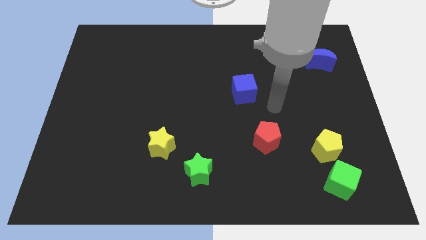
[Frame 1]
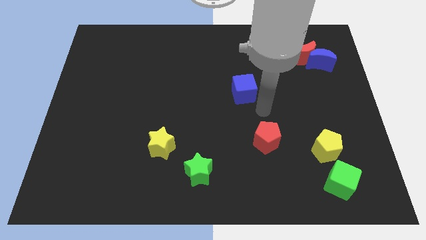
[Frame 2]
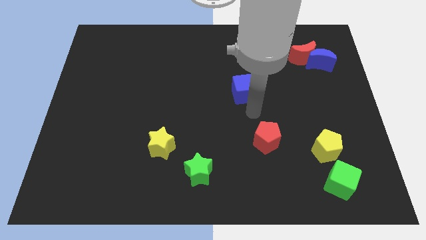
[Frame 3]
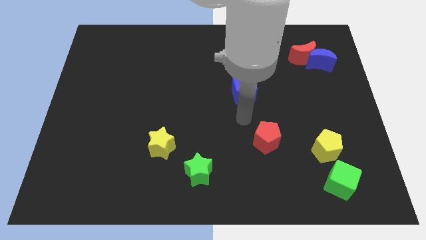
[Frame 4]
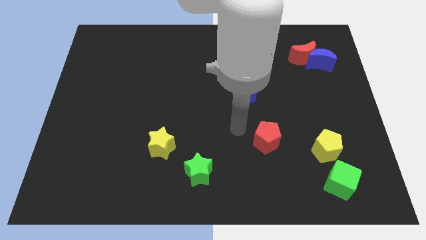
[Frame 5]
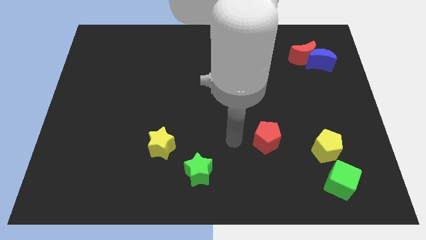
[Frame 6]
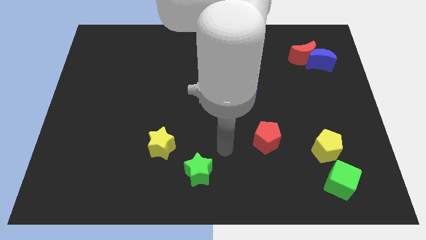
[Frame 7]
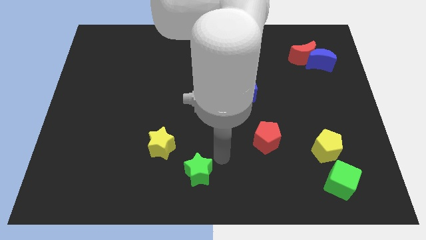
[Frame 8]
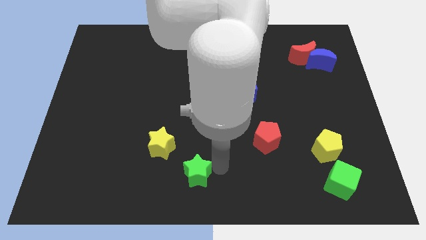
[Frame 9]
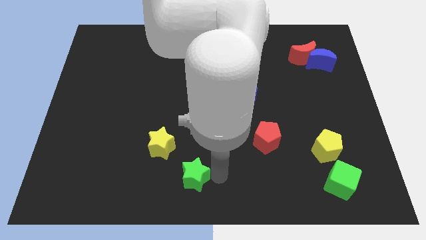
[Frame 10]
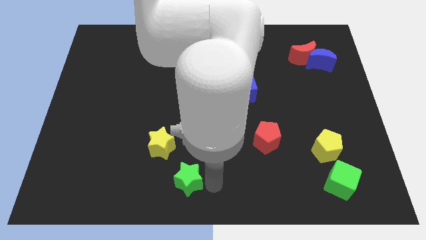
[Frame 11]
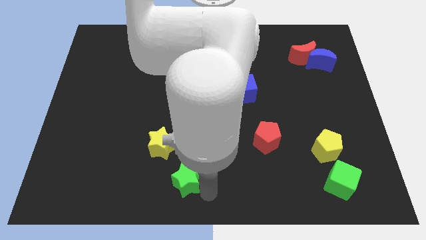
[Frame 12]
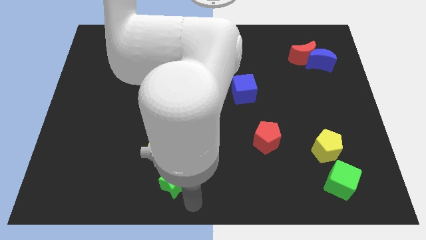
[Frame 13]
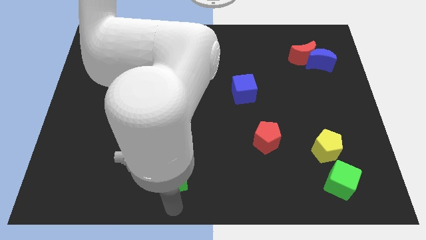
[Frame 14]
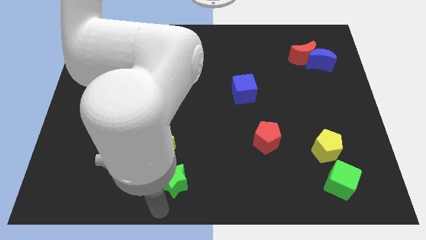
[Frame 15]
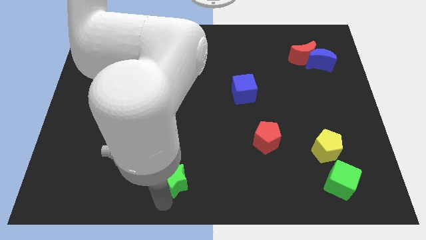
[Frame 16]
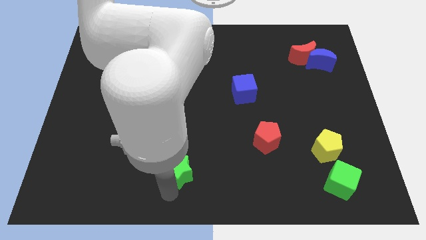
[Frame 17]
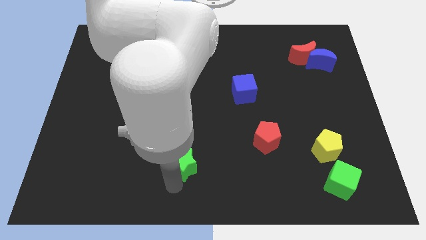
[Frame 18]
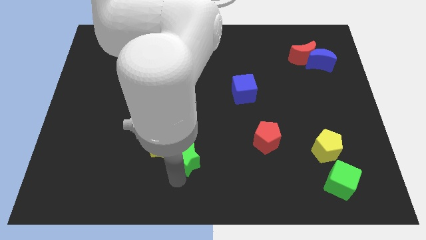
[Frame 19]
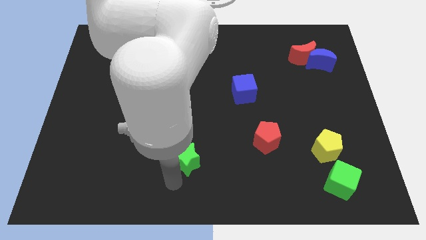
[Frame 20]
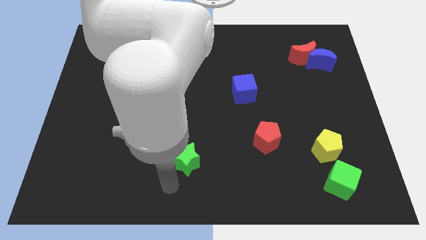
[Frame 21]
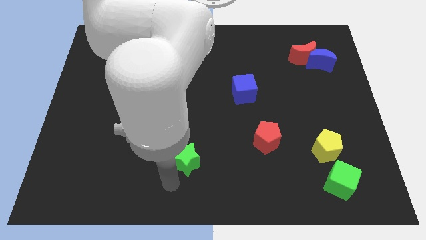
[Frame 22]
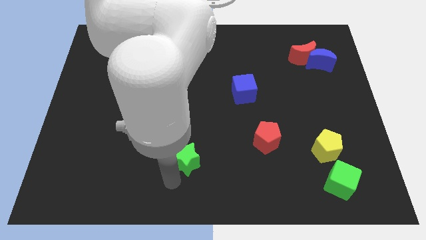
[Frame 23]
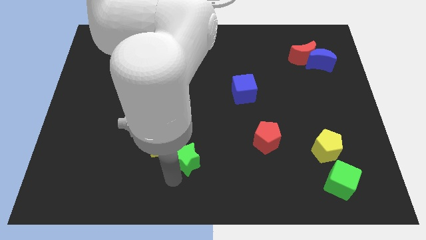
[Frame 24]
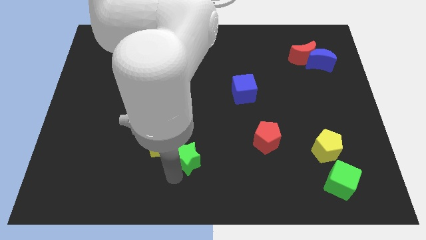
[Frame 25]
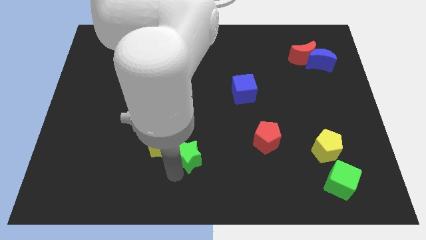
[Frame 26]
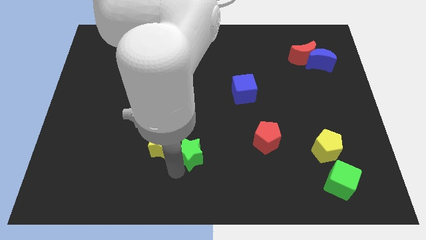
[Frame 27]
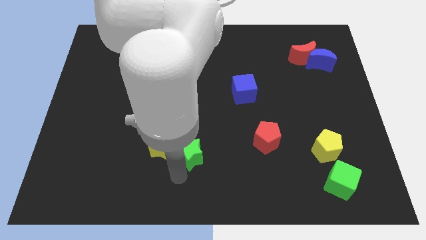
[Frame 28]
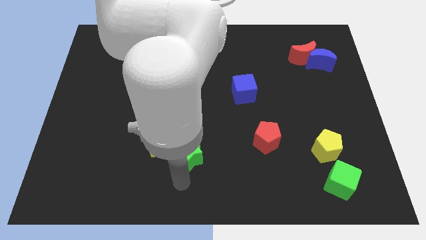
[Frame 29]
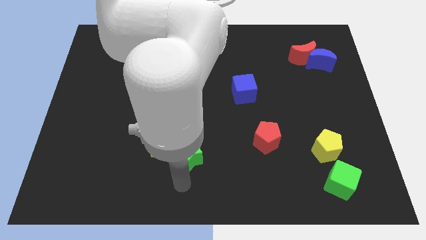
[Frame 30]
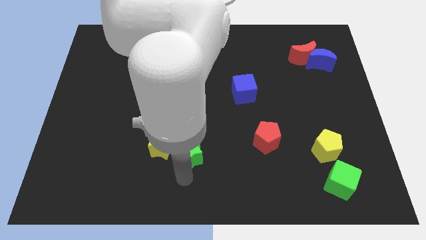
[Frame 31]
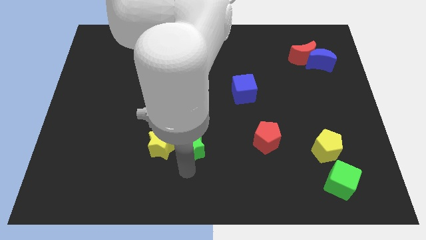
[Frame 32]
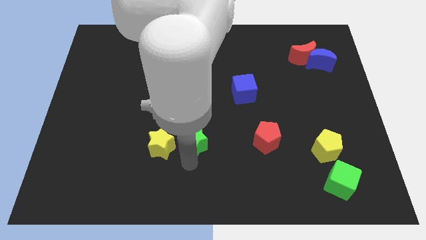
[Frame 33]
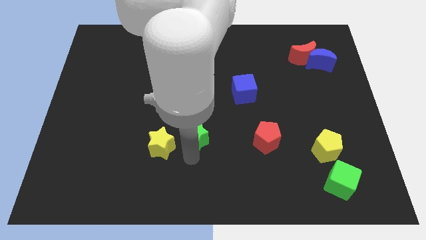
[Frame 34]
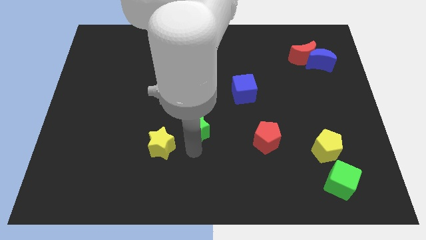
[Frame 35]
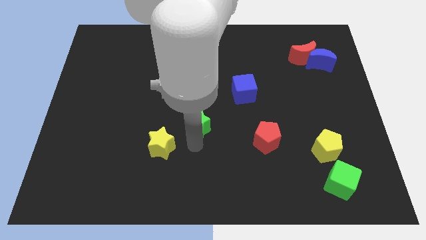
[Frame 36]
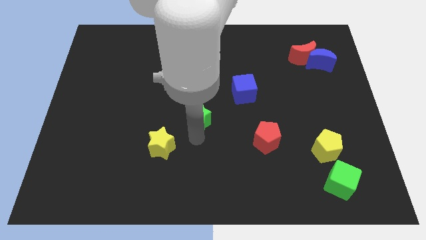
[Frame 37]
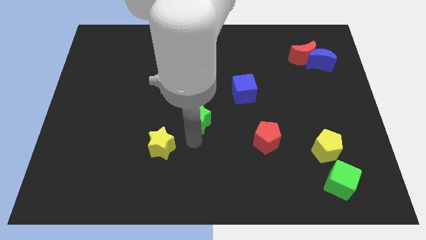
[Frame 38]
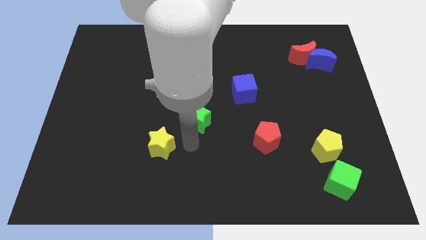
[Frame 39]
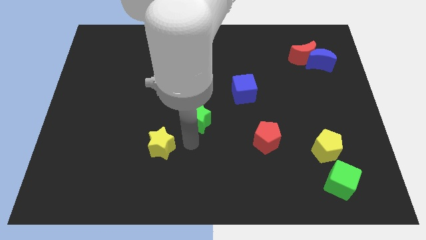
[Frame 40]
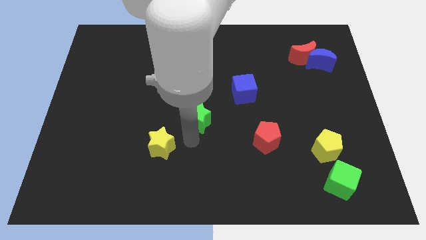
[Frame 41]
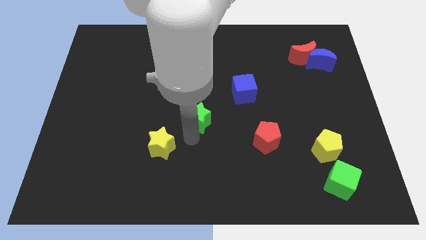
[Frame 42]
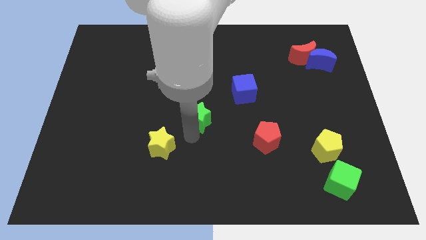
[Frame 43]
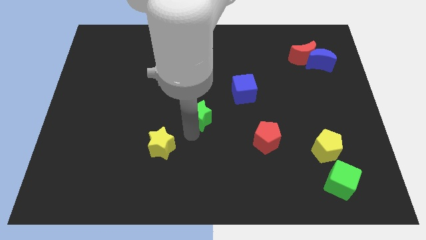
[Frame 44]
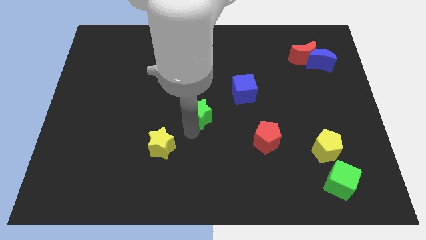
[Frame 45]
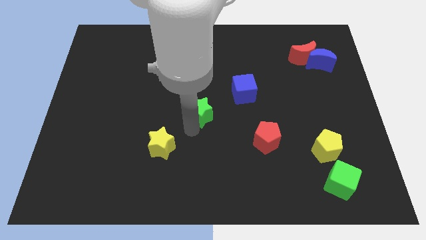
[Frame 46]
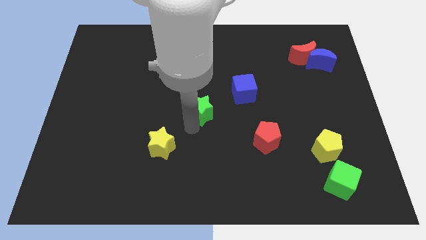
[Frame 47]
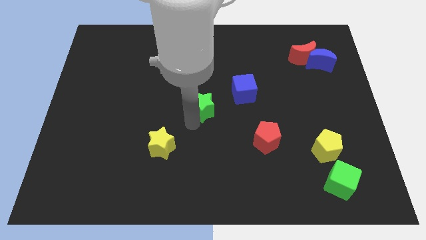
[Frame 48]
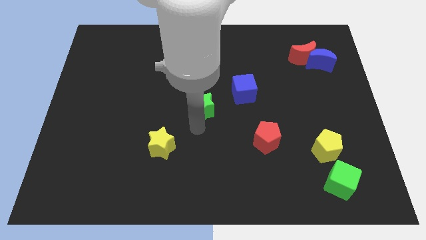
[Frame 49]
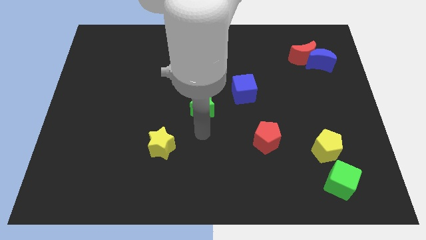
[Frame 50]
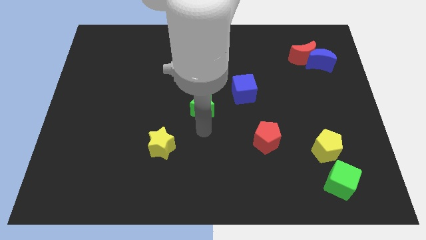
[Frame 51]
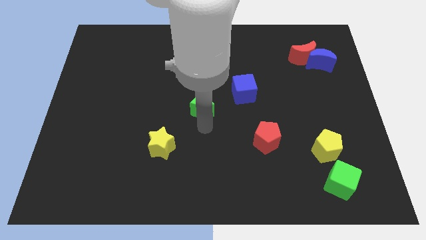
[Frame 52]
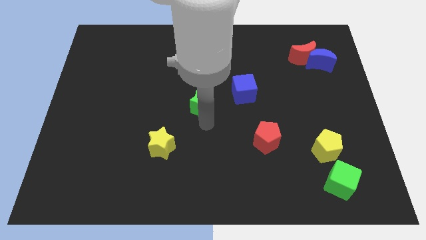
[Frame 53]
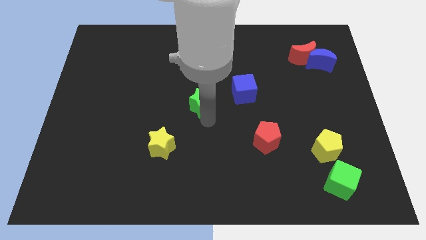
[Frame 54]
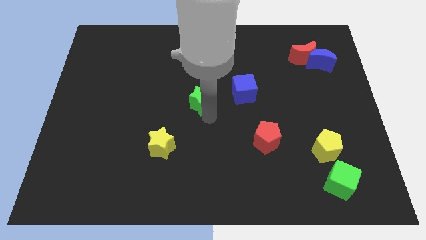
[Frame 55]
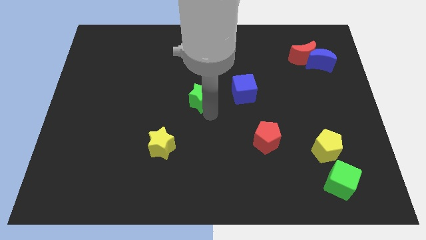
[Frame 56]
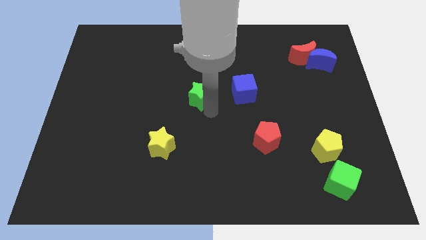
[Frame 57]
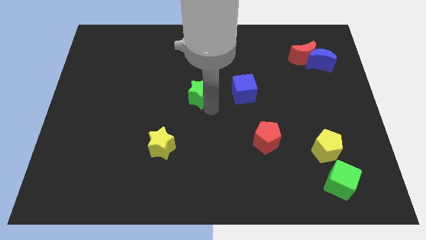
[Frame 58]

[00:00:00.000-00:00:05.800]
move the green star up

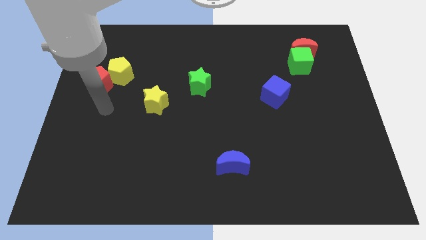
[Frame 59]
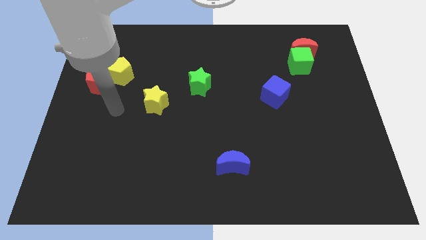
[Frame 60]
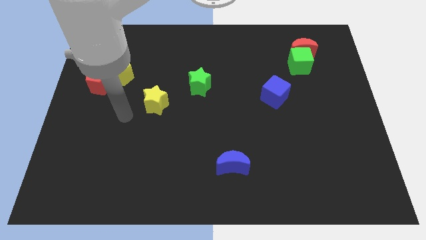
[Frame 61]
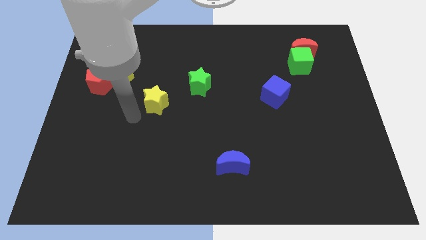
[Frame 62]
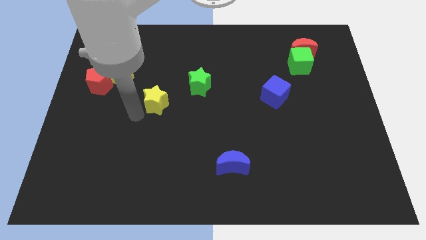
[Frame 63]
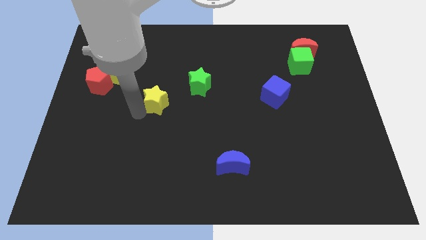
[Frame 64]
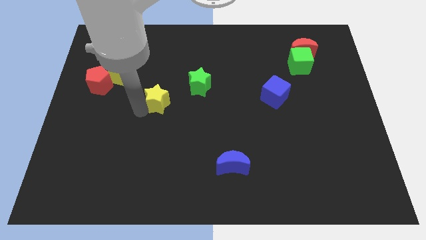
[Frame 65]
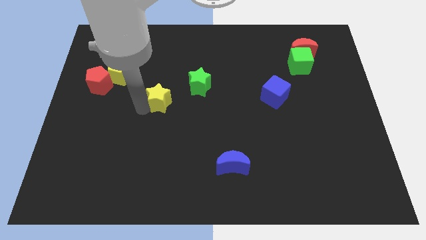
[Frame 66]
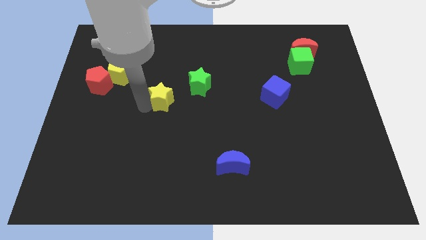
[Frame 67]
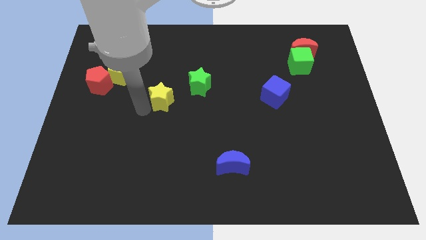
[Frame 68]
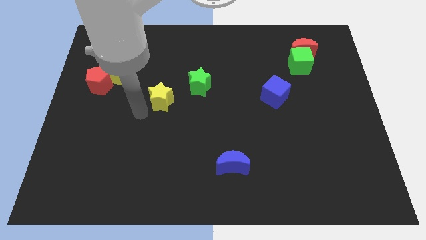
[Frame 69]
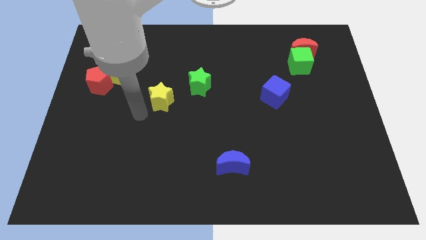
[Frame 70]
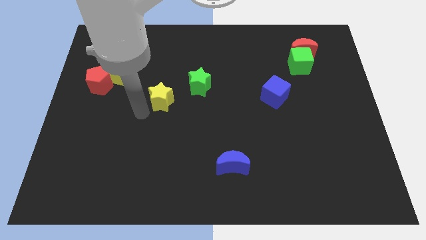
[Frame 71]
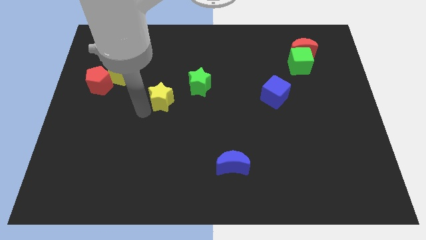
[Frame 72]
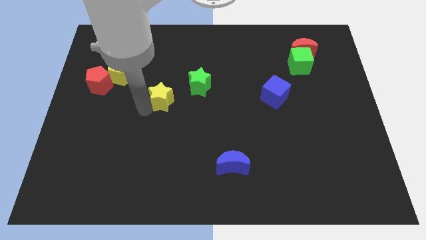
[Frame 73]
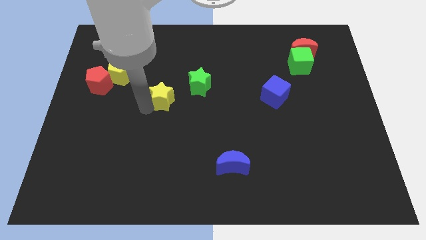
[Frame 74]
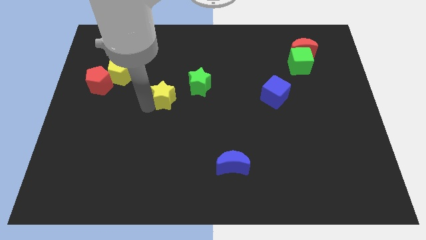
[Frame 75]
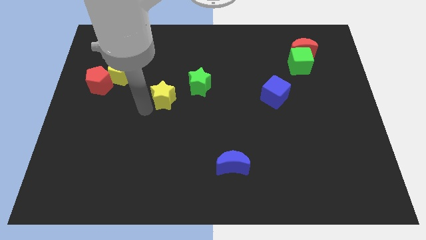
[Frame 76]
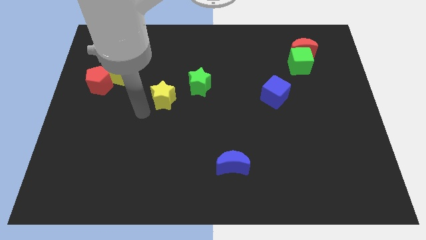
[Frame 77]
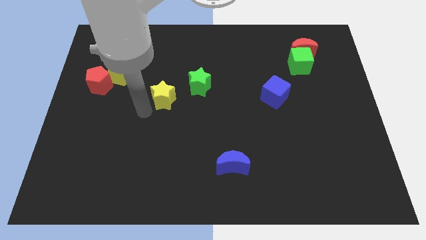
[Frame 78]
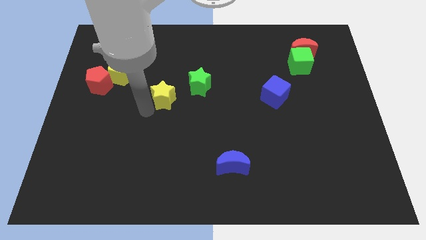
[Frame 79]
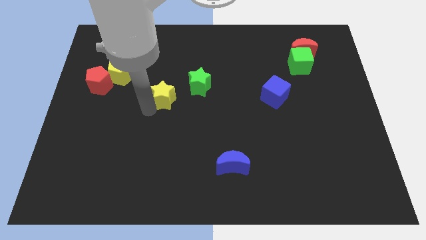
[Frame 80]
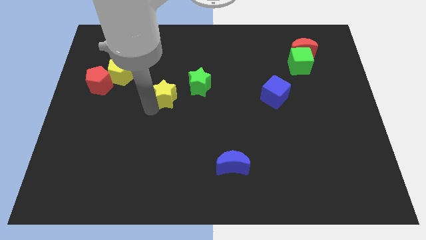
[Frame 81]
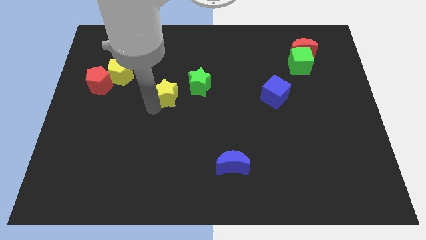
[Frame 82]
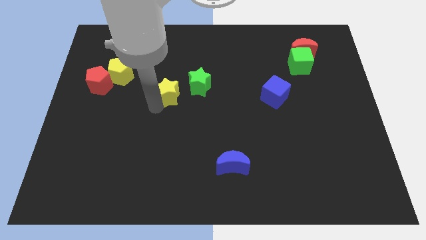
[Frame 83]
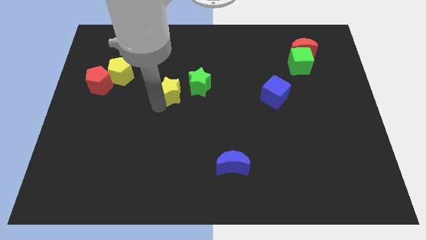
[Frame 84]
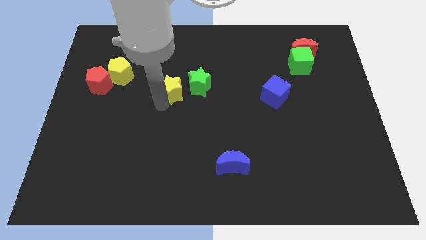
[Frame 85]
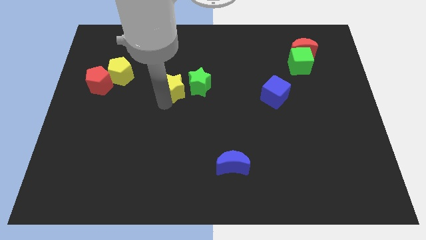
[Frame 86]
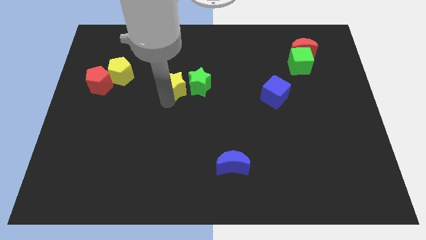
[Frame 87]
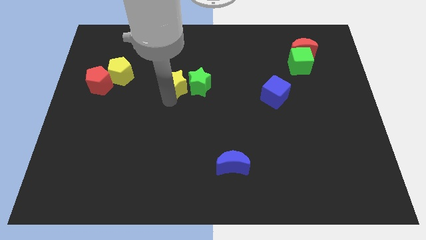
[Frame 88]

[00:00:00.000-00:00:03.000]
slide the yellow star a little bit upwards and right

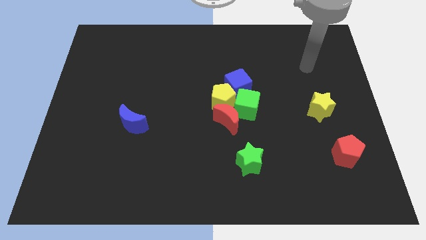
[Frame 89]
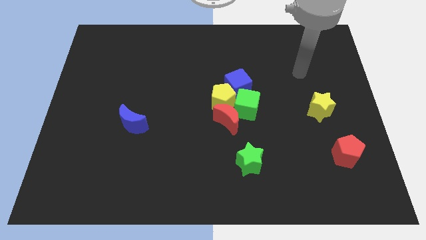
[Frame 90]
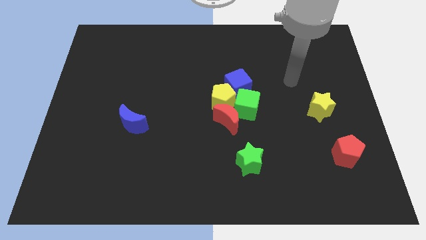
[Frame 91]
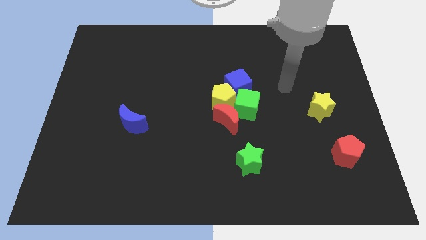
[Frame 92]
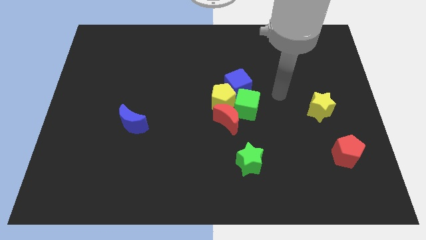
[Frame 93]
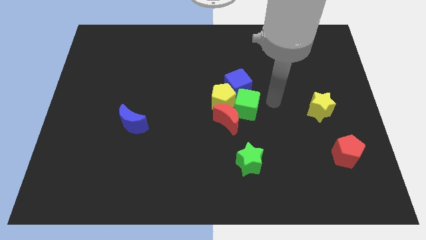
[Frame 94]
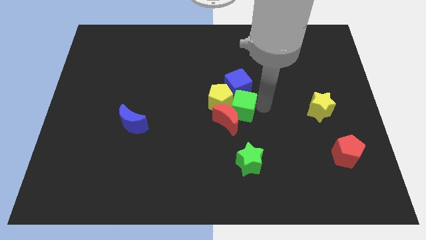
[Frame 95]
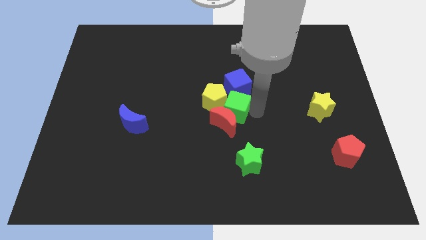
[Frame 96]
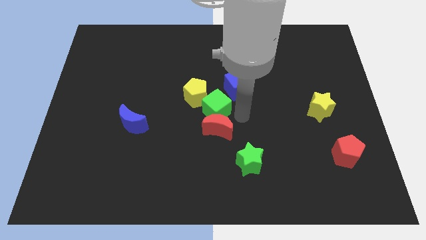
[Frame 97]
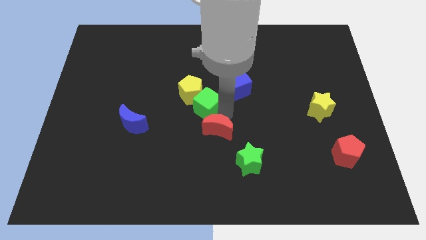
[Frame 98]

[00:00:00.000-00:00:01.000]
slightly slide the yellow pentagon upwards and to the left diagonally
